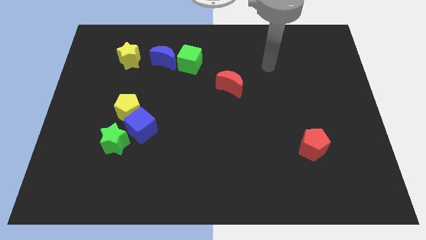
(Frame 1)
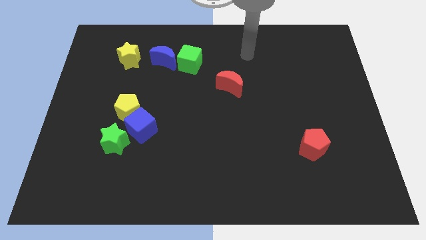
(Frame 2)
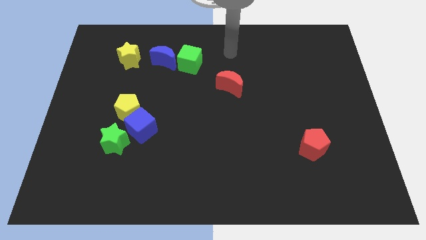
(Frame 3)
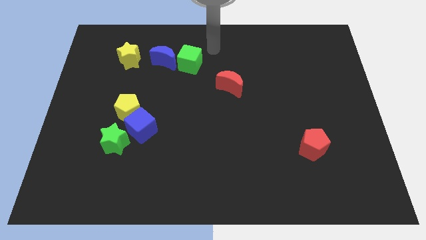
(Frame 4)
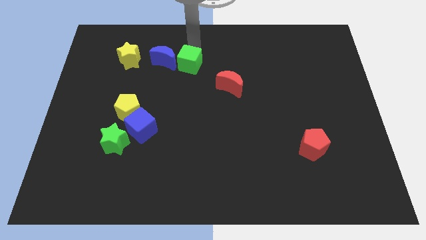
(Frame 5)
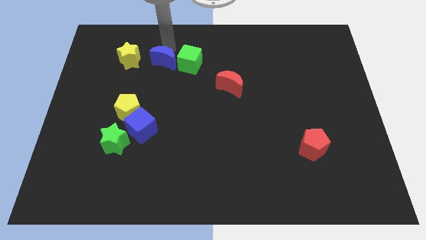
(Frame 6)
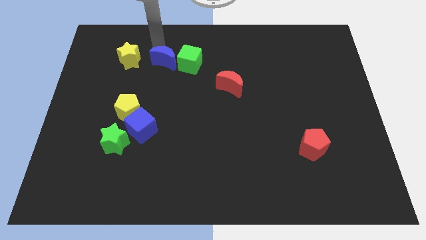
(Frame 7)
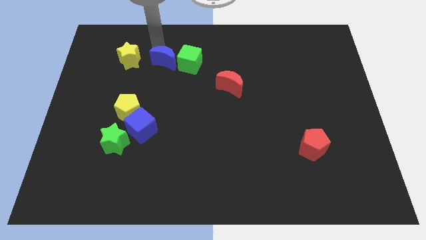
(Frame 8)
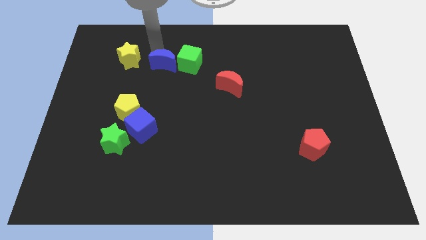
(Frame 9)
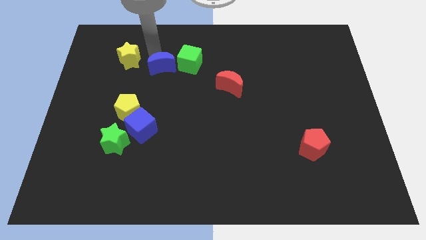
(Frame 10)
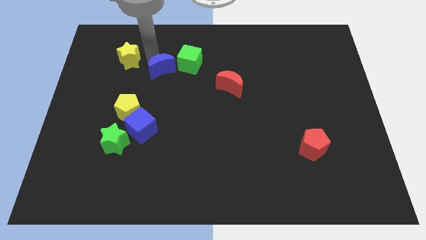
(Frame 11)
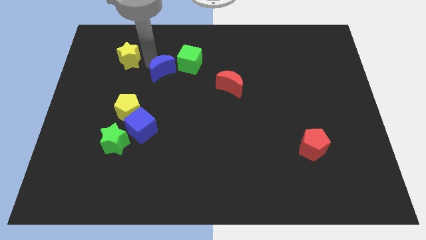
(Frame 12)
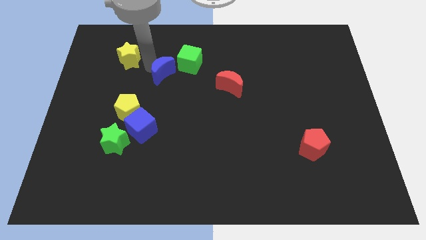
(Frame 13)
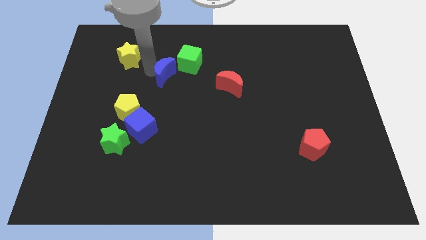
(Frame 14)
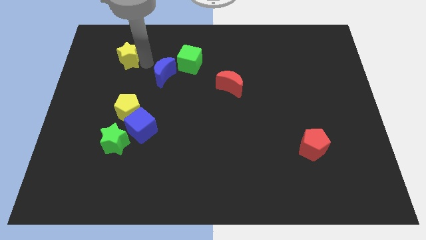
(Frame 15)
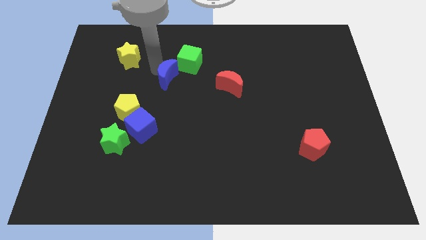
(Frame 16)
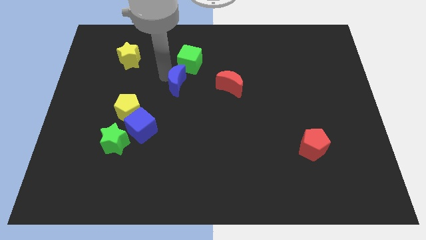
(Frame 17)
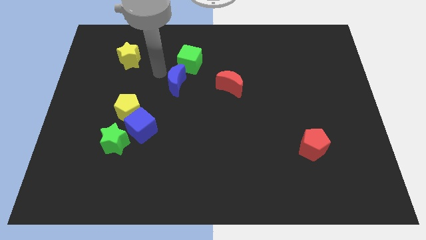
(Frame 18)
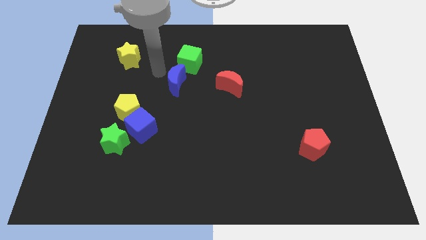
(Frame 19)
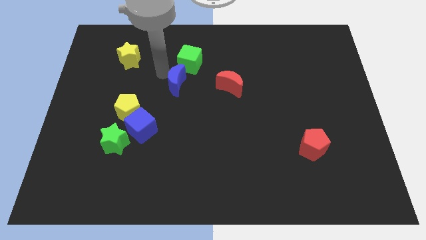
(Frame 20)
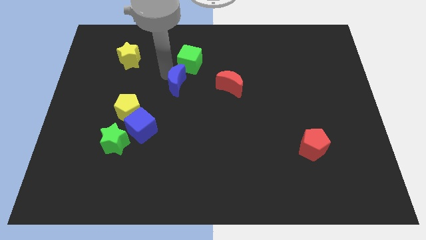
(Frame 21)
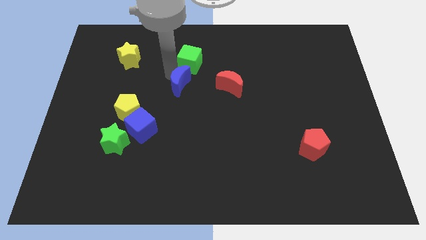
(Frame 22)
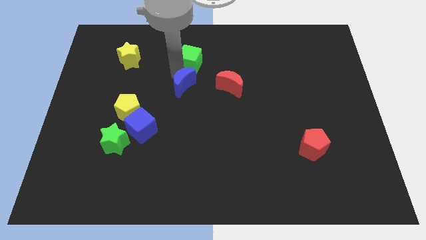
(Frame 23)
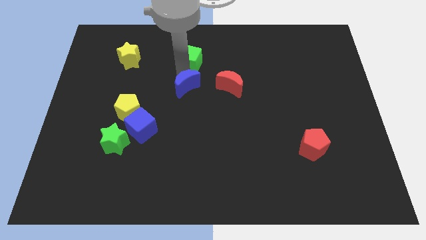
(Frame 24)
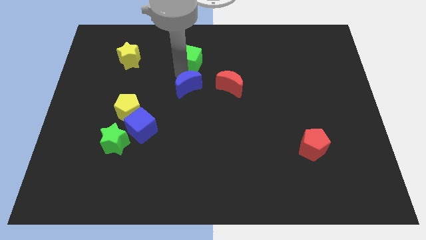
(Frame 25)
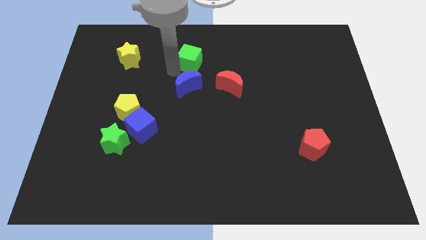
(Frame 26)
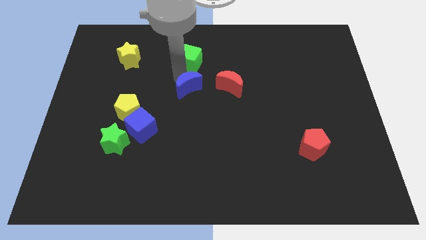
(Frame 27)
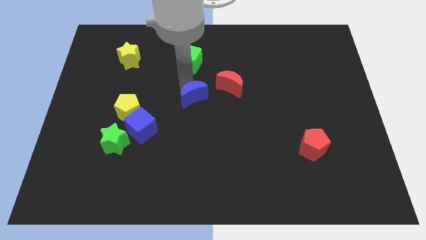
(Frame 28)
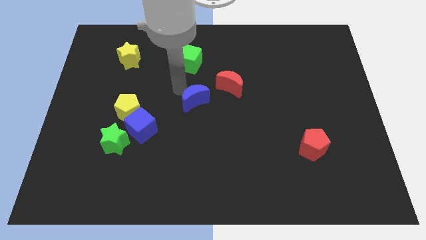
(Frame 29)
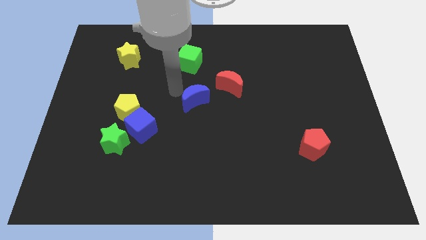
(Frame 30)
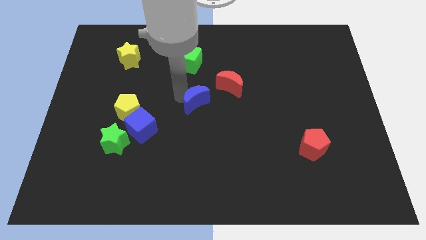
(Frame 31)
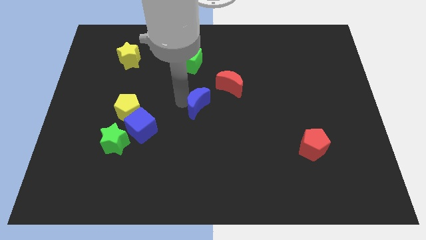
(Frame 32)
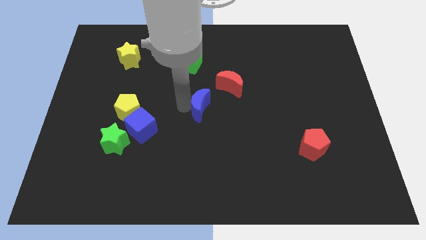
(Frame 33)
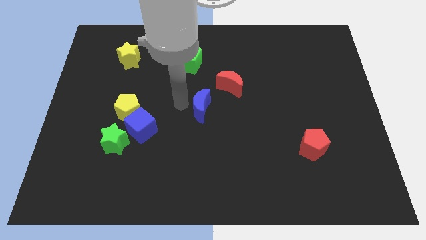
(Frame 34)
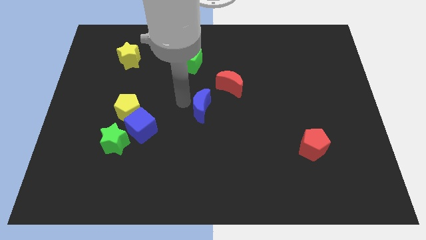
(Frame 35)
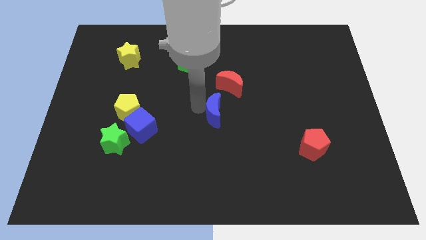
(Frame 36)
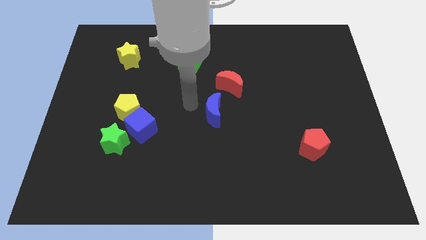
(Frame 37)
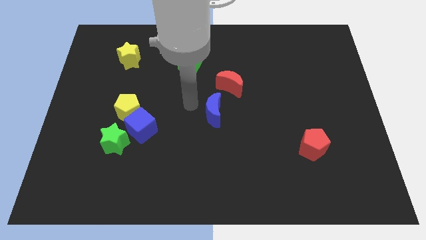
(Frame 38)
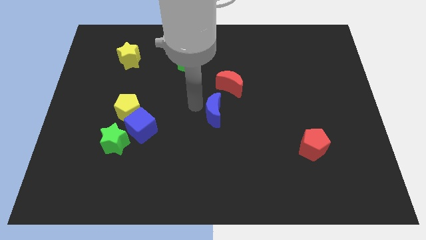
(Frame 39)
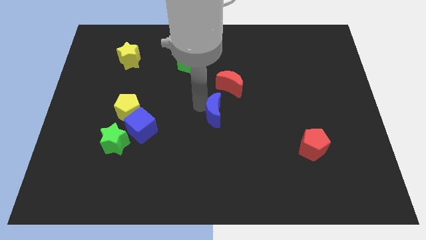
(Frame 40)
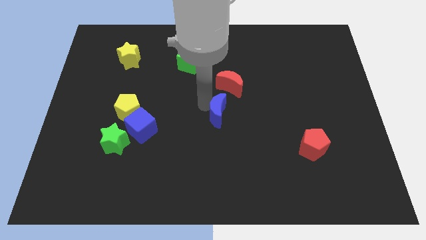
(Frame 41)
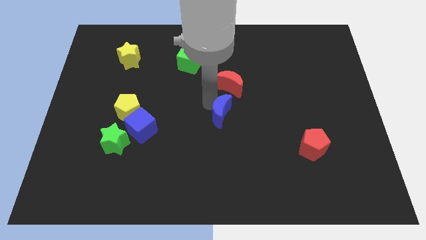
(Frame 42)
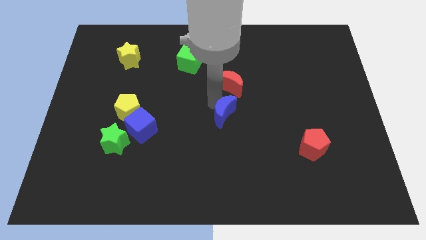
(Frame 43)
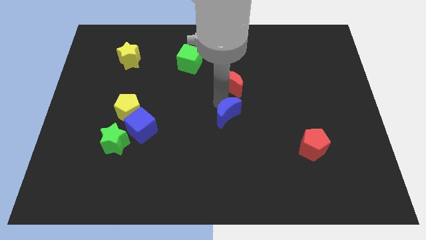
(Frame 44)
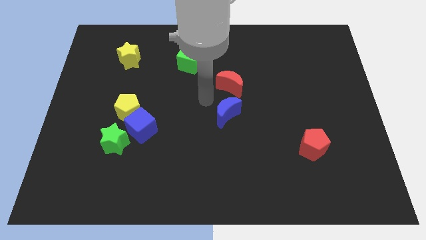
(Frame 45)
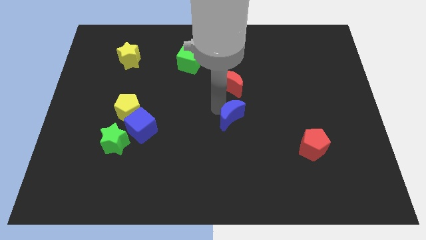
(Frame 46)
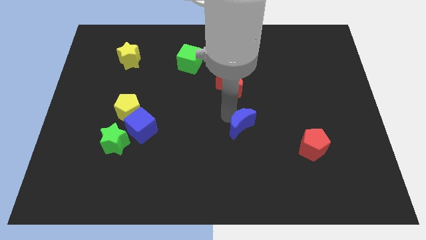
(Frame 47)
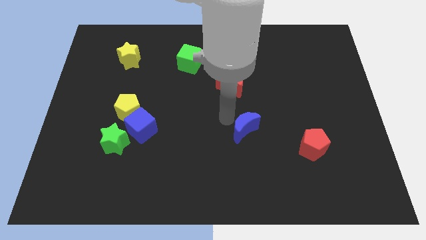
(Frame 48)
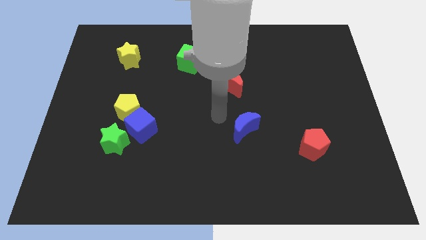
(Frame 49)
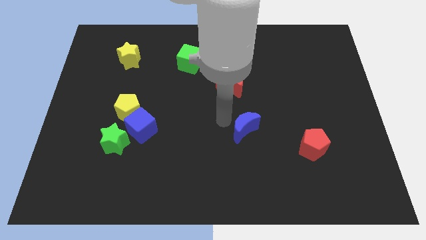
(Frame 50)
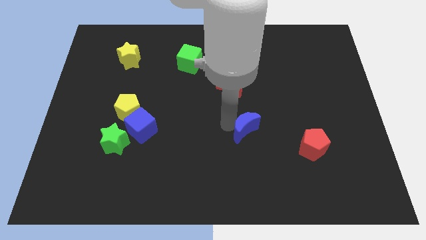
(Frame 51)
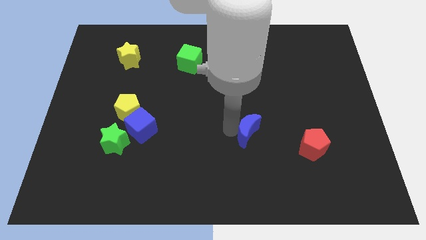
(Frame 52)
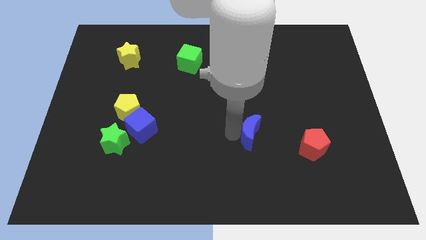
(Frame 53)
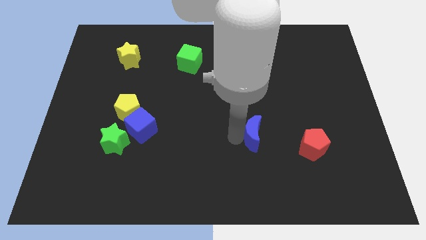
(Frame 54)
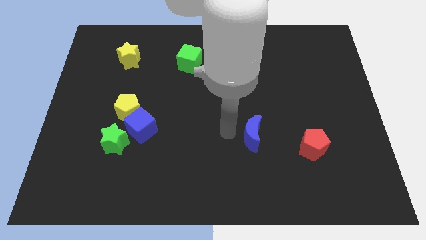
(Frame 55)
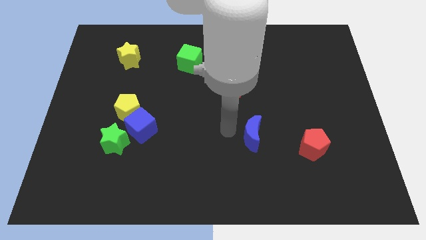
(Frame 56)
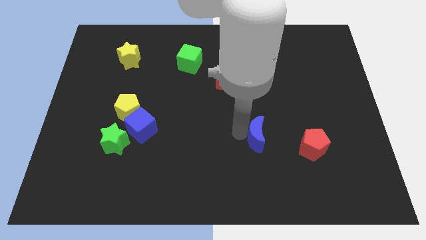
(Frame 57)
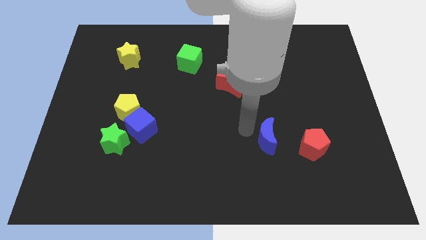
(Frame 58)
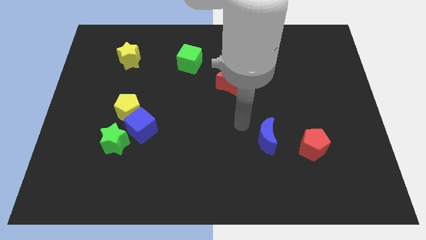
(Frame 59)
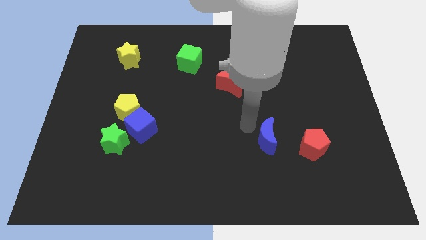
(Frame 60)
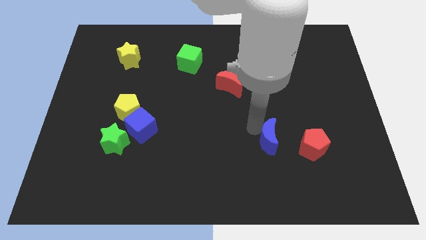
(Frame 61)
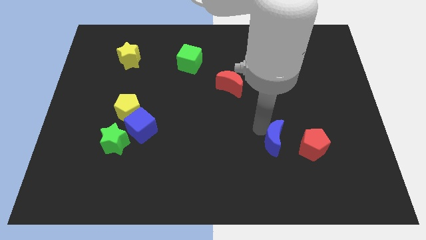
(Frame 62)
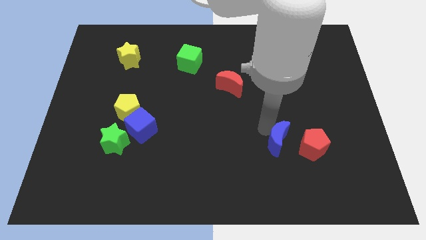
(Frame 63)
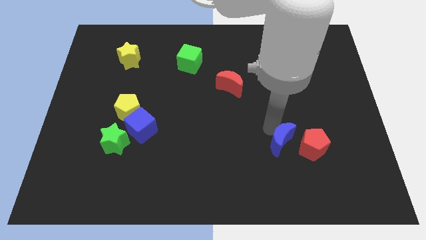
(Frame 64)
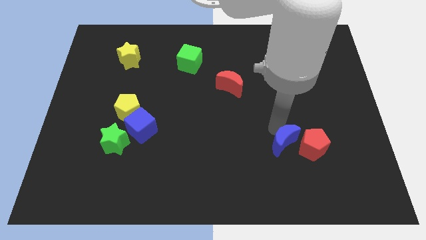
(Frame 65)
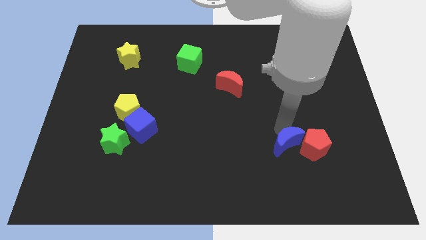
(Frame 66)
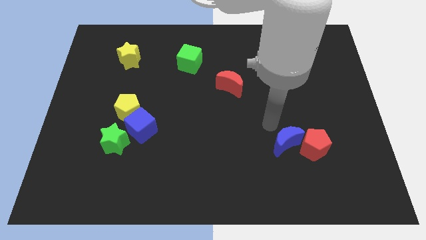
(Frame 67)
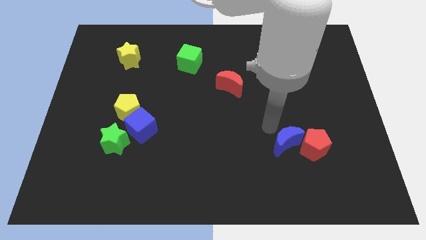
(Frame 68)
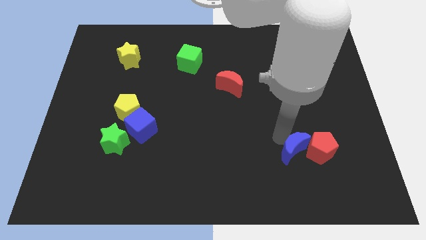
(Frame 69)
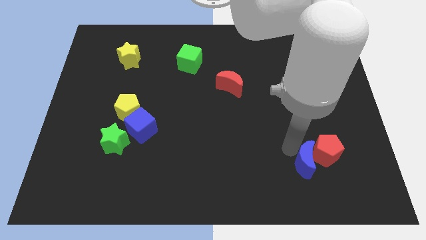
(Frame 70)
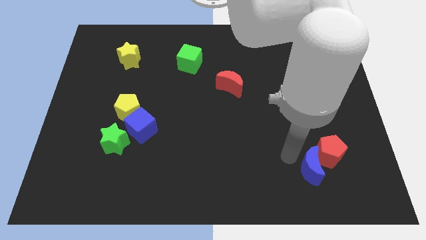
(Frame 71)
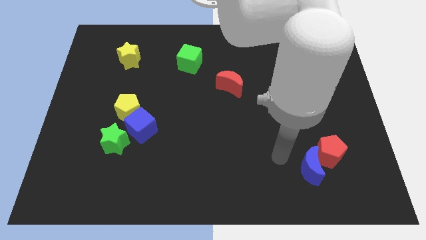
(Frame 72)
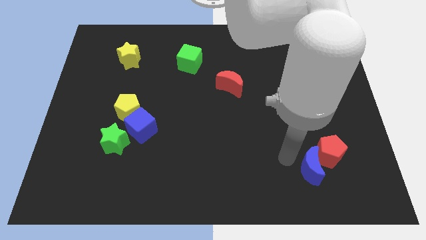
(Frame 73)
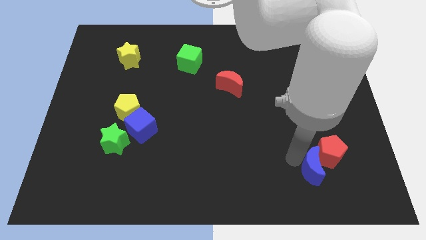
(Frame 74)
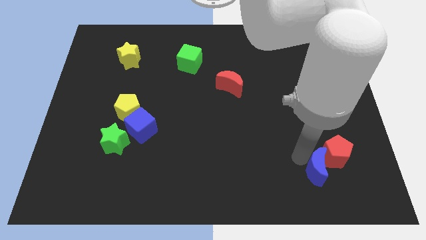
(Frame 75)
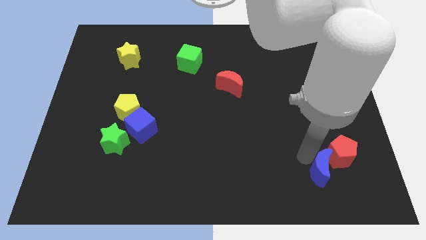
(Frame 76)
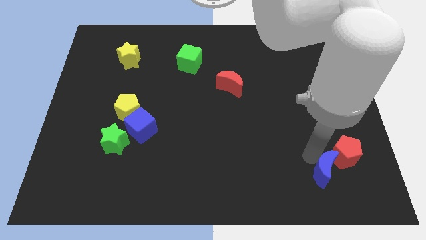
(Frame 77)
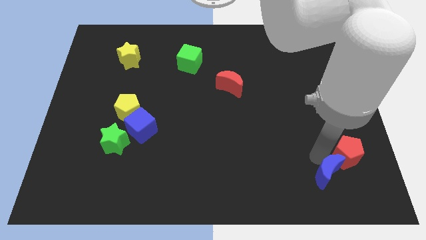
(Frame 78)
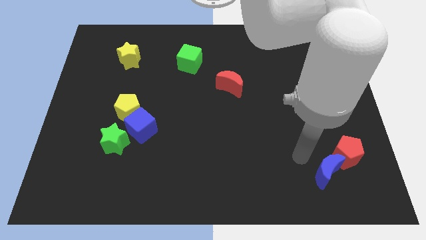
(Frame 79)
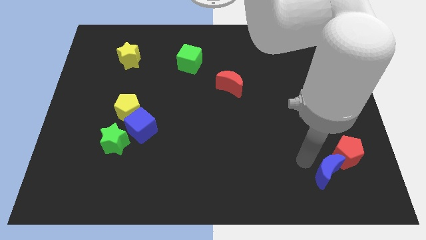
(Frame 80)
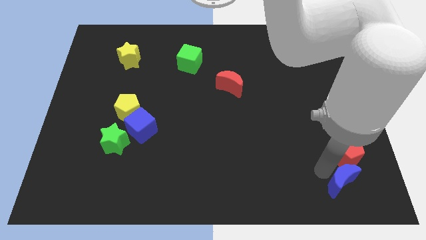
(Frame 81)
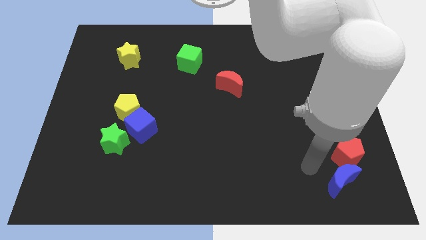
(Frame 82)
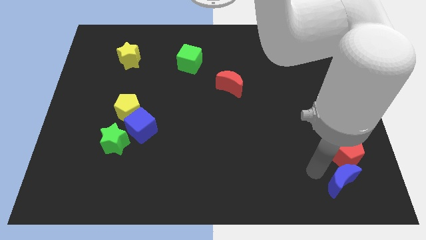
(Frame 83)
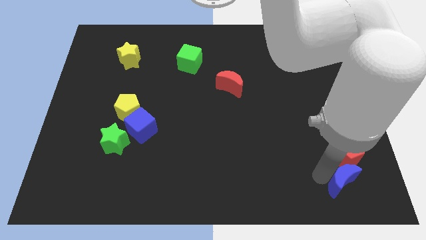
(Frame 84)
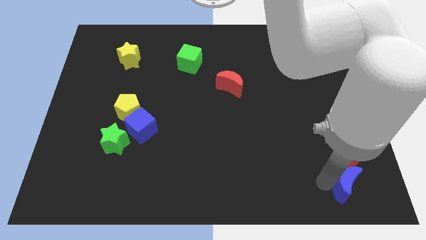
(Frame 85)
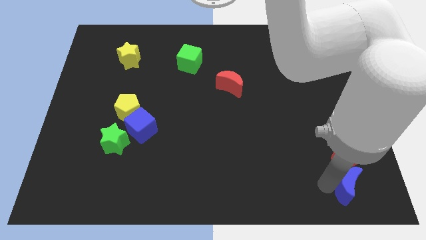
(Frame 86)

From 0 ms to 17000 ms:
put the blue moon to the bottom right of the board
